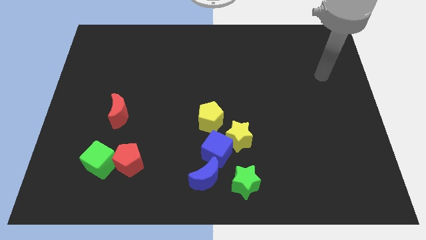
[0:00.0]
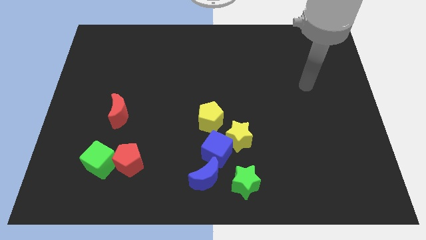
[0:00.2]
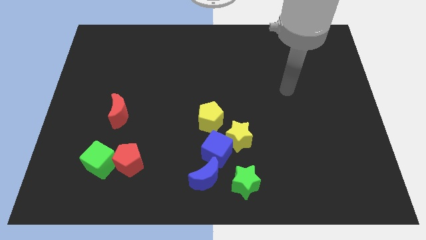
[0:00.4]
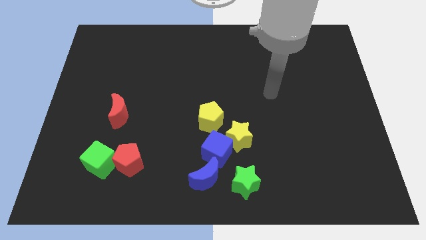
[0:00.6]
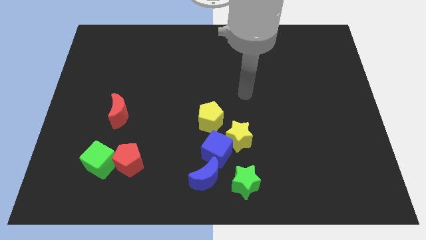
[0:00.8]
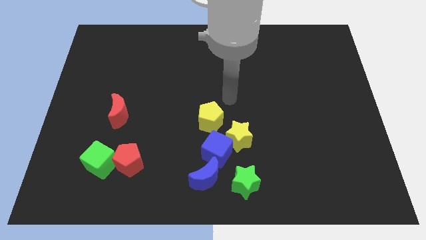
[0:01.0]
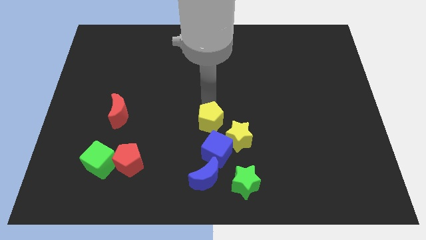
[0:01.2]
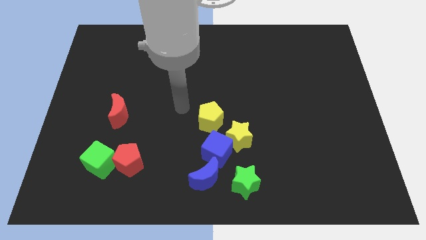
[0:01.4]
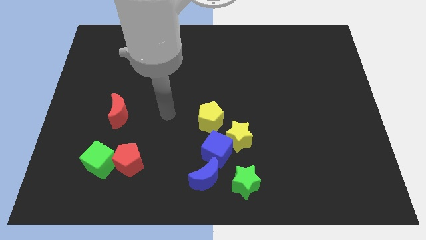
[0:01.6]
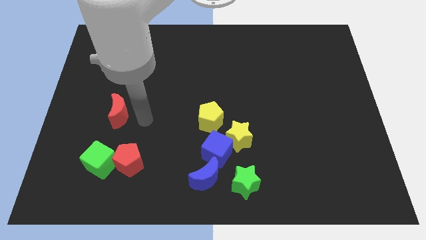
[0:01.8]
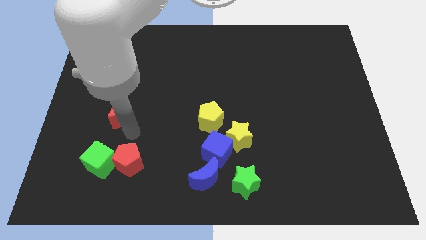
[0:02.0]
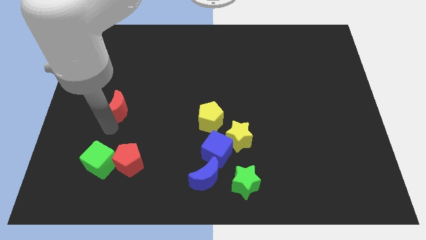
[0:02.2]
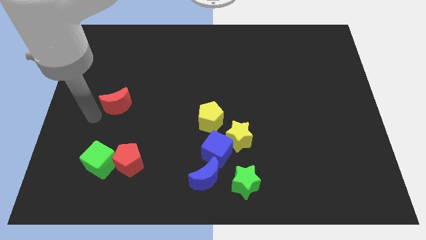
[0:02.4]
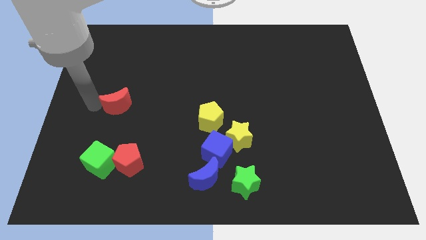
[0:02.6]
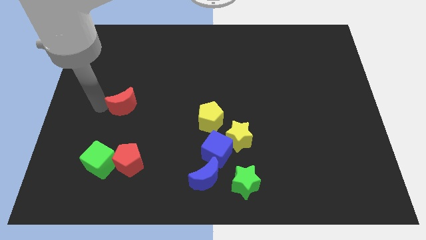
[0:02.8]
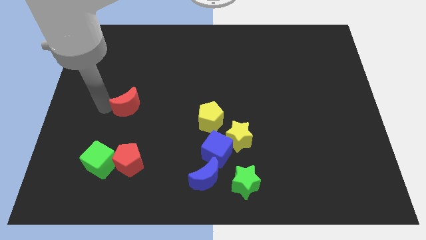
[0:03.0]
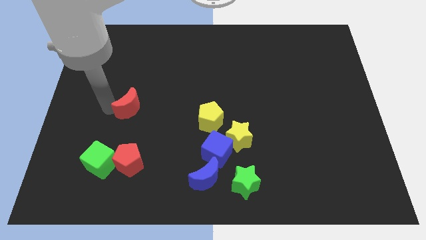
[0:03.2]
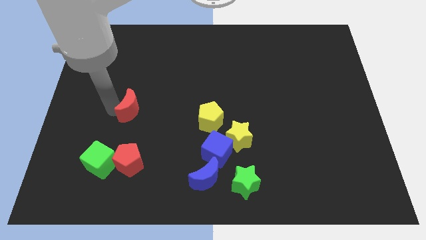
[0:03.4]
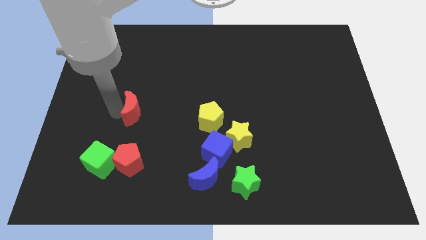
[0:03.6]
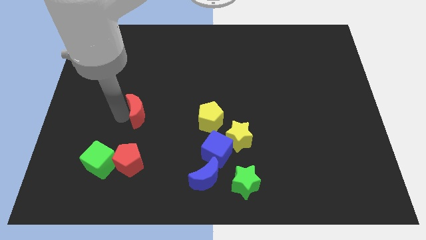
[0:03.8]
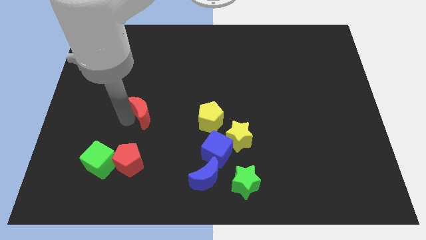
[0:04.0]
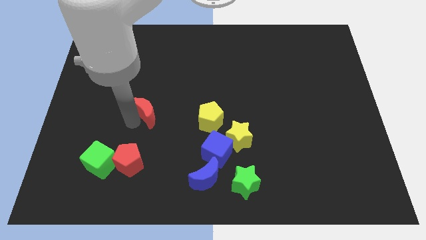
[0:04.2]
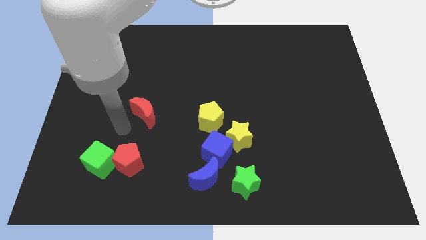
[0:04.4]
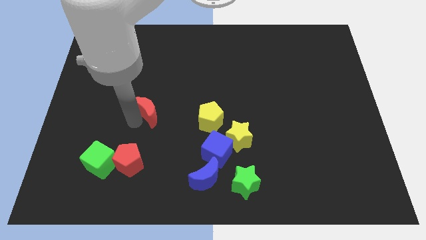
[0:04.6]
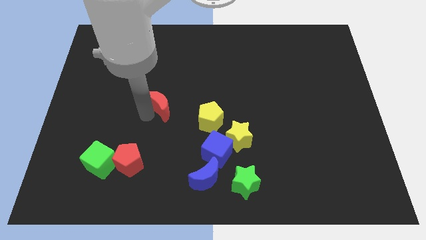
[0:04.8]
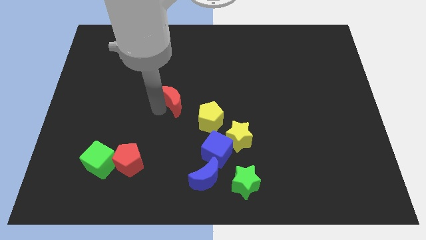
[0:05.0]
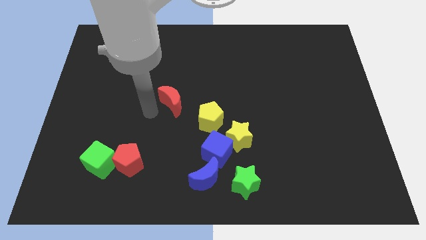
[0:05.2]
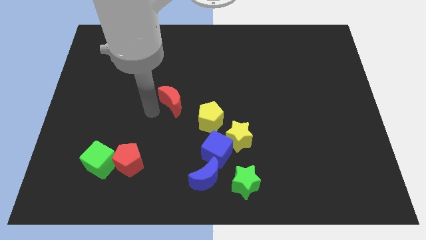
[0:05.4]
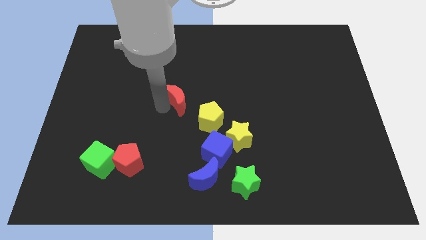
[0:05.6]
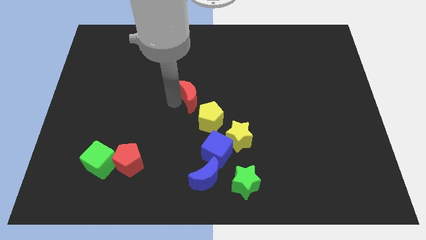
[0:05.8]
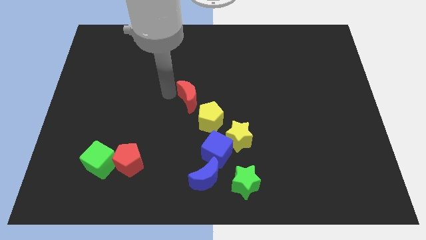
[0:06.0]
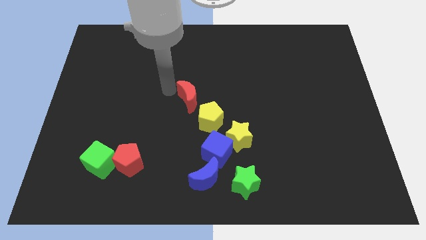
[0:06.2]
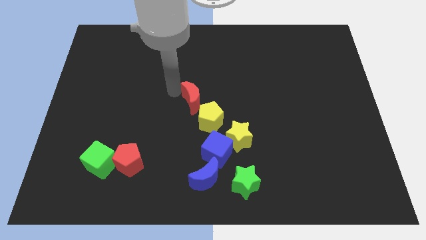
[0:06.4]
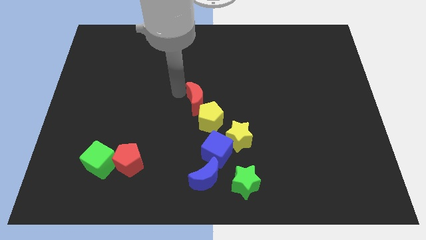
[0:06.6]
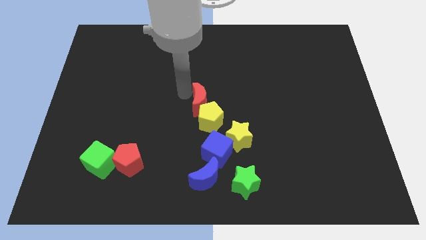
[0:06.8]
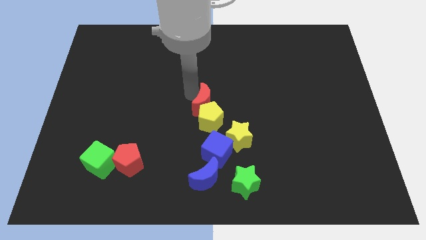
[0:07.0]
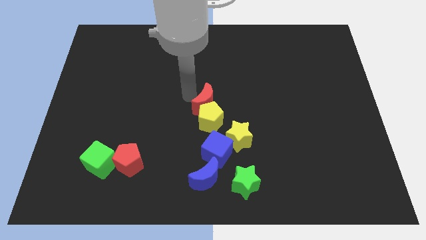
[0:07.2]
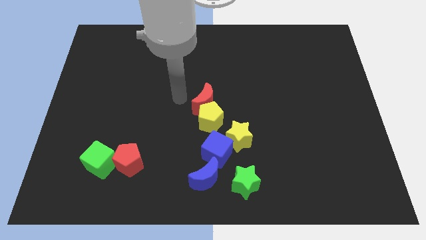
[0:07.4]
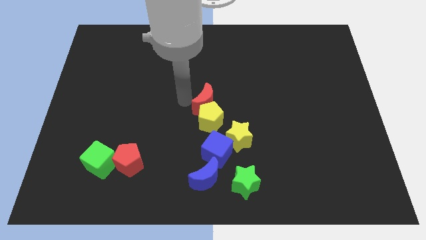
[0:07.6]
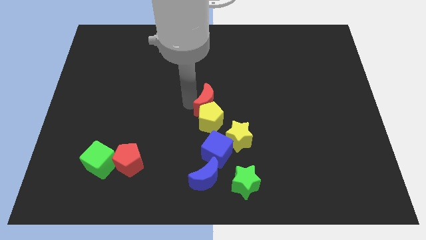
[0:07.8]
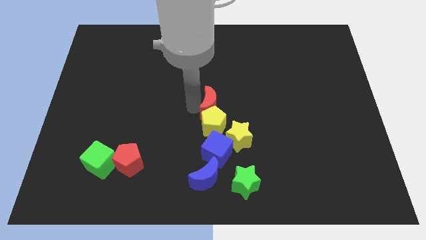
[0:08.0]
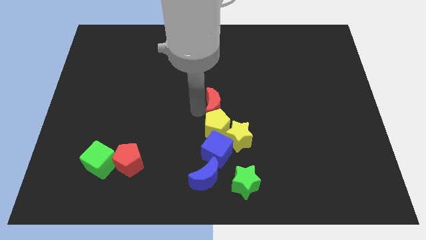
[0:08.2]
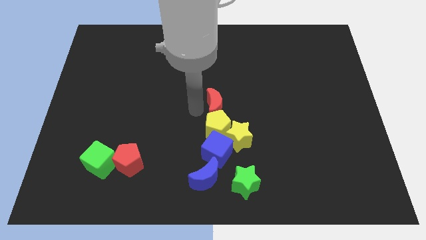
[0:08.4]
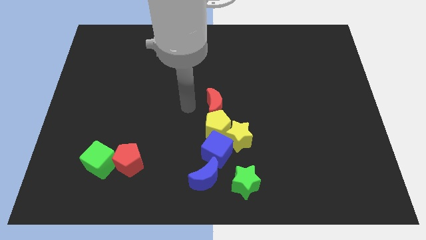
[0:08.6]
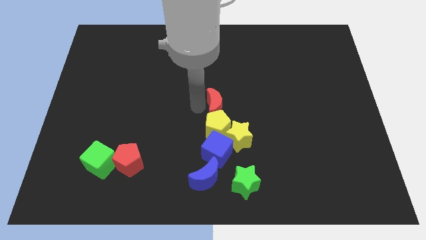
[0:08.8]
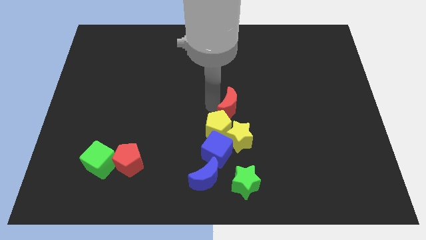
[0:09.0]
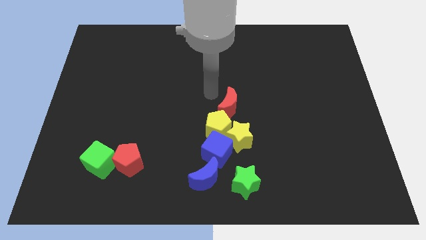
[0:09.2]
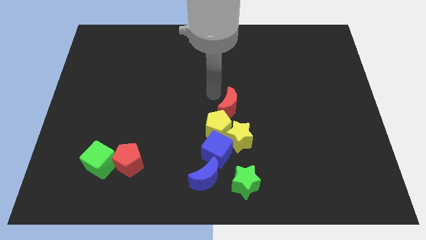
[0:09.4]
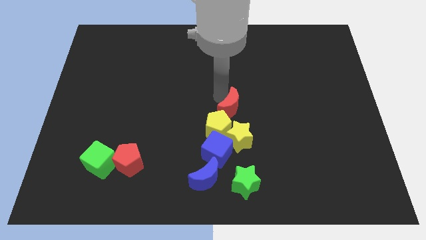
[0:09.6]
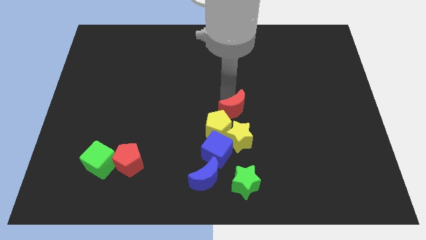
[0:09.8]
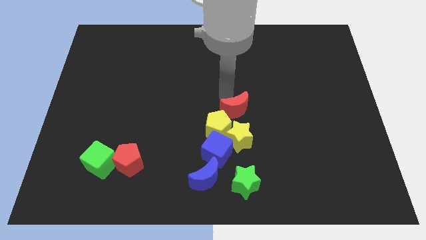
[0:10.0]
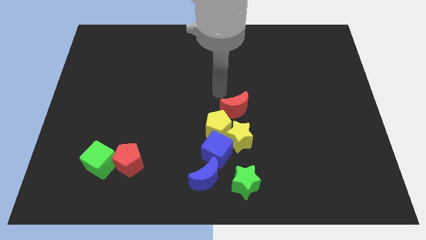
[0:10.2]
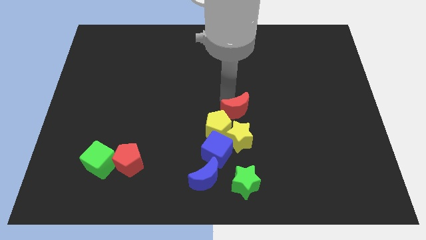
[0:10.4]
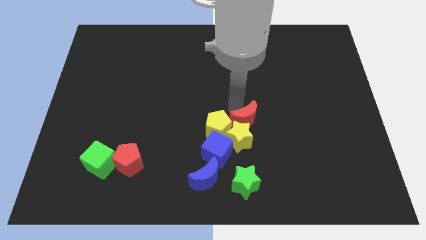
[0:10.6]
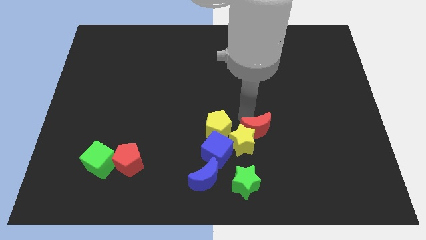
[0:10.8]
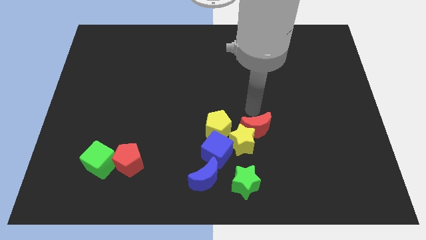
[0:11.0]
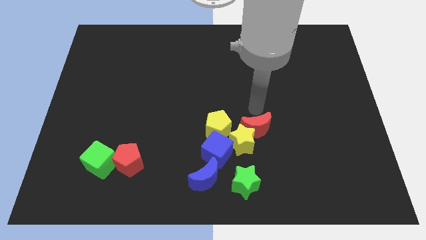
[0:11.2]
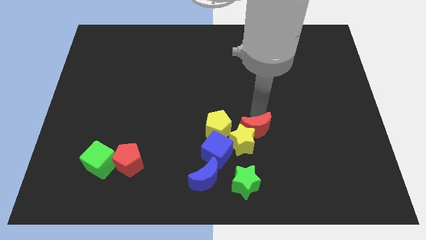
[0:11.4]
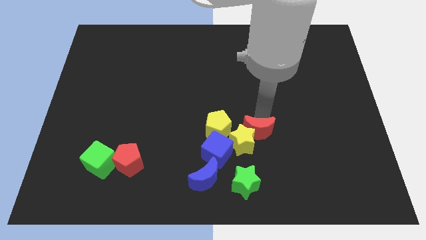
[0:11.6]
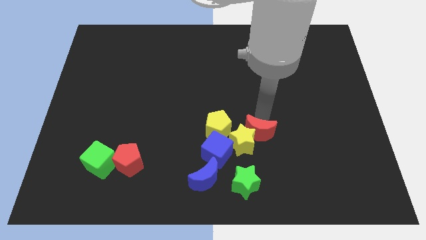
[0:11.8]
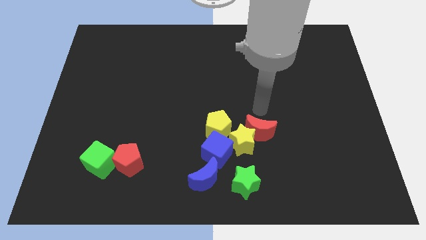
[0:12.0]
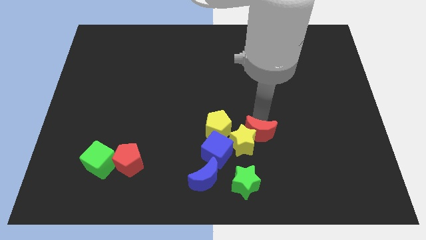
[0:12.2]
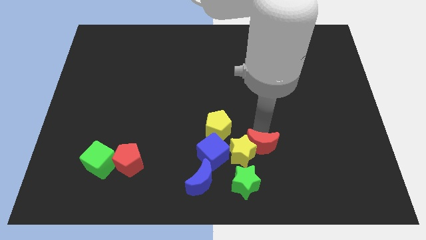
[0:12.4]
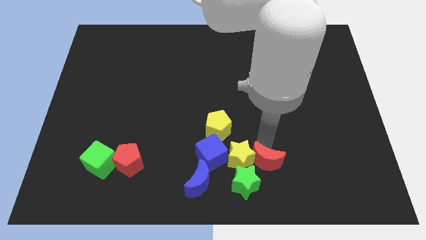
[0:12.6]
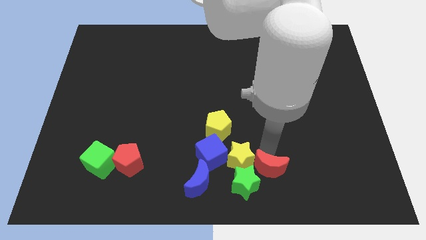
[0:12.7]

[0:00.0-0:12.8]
move the red moon to the right side of the blue moon

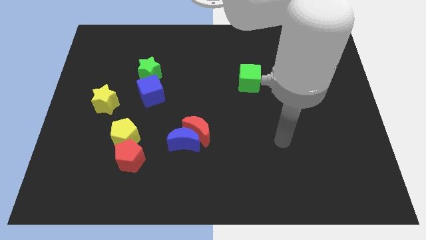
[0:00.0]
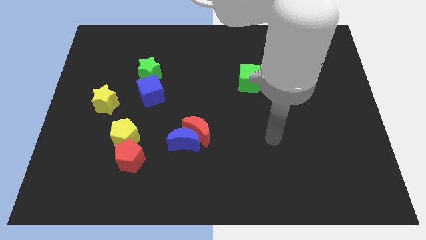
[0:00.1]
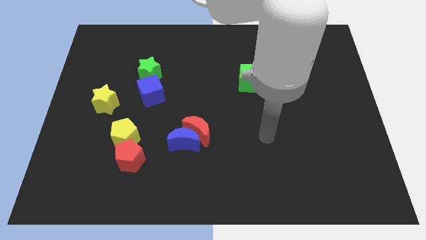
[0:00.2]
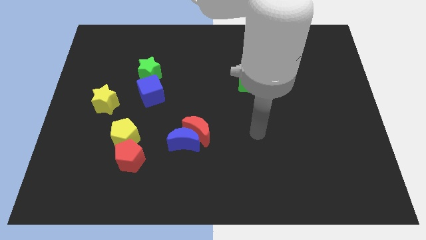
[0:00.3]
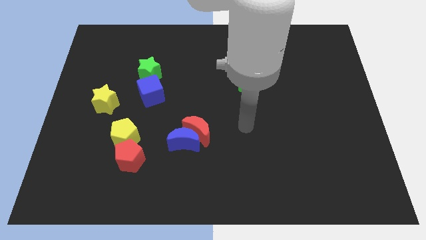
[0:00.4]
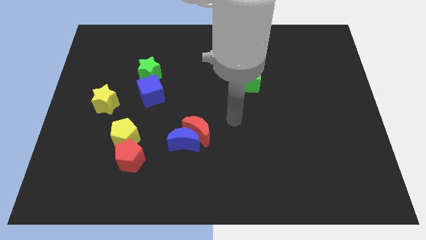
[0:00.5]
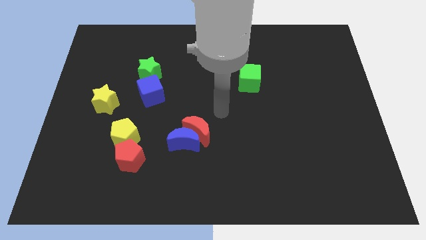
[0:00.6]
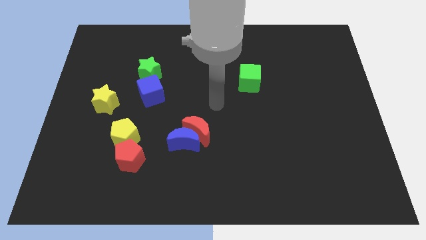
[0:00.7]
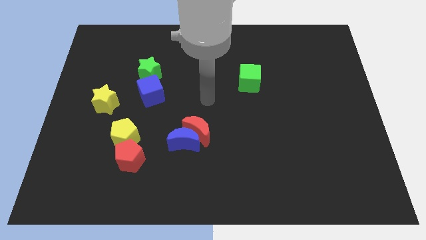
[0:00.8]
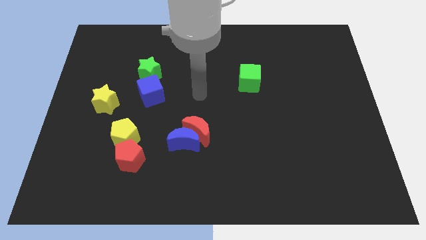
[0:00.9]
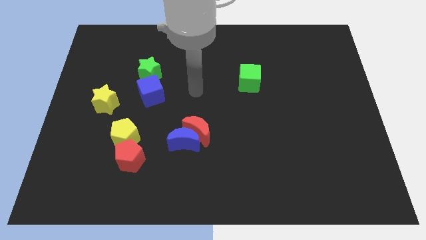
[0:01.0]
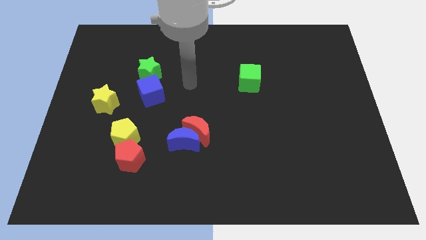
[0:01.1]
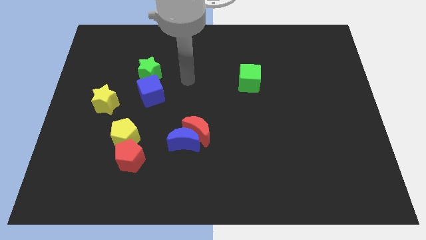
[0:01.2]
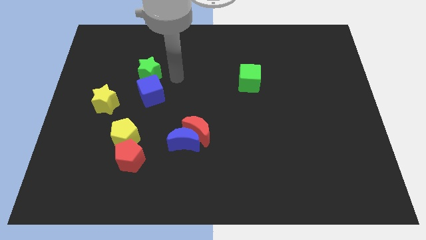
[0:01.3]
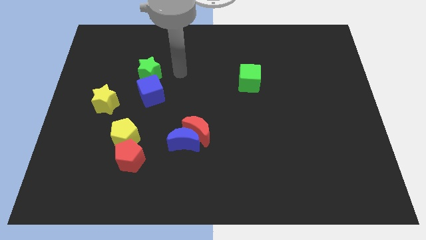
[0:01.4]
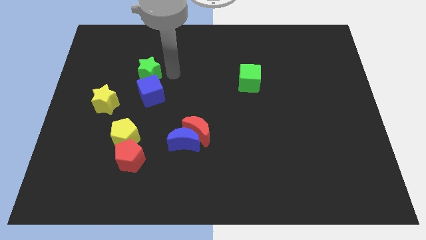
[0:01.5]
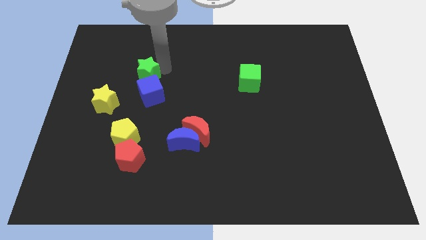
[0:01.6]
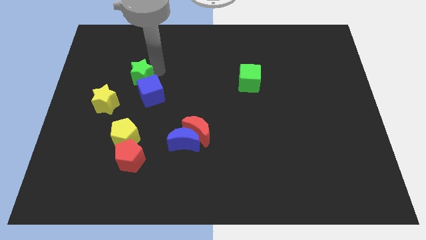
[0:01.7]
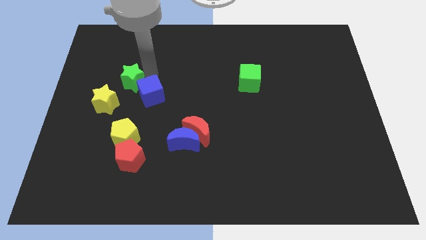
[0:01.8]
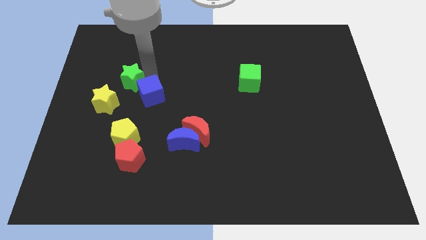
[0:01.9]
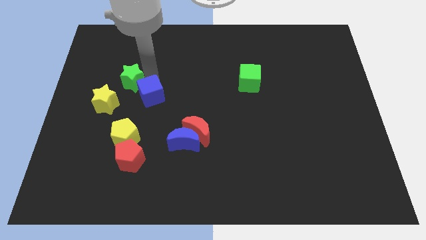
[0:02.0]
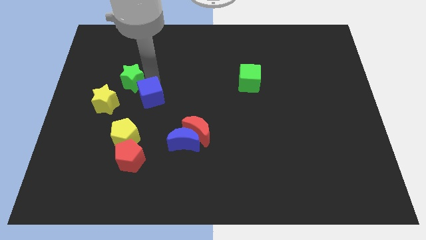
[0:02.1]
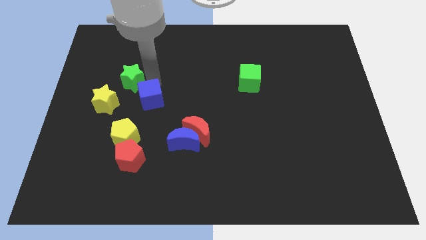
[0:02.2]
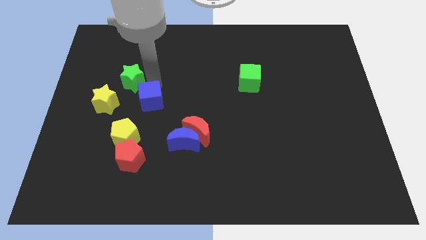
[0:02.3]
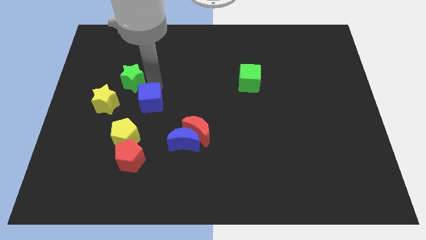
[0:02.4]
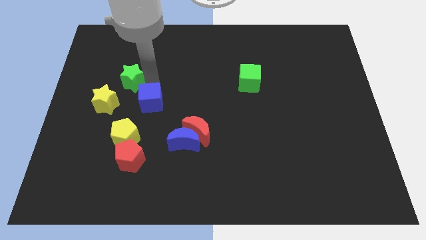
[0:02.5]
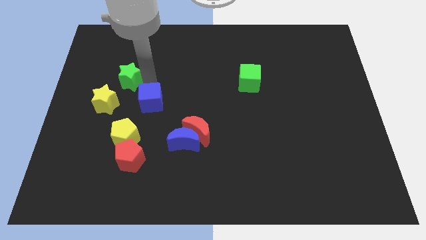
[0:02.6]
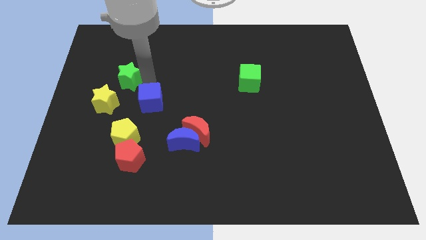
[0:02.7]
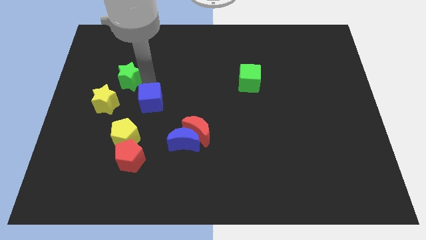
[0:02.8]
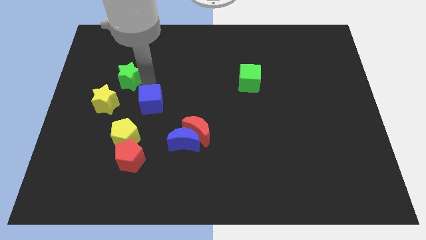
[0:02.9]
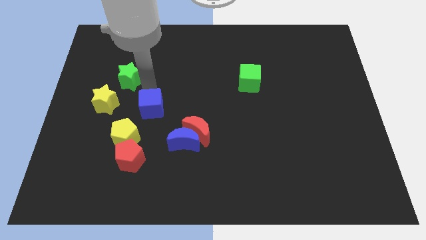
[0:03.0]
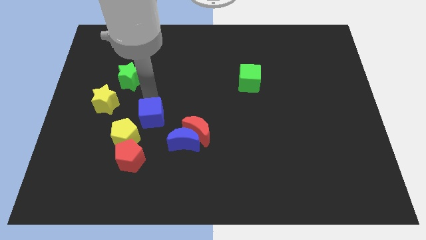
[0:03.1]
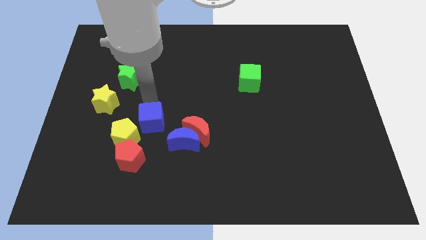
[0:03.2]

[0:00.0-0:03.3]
slide the blue cube diagonally up and to the right of the red pentagon
